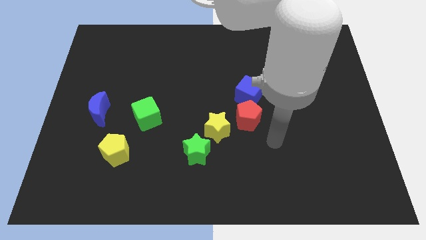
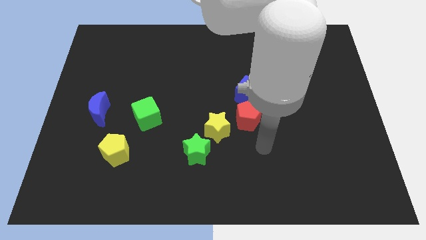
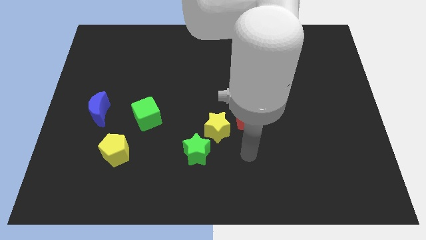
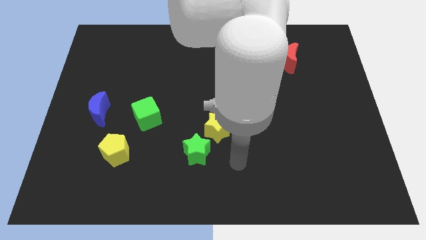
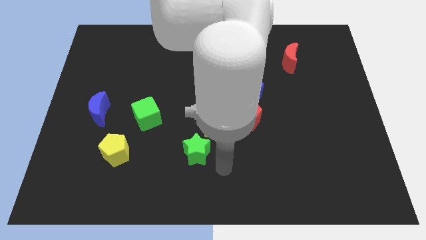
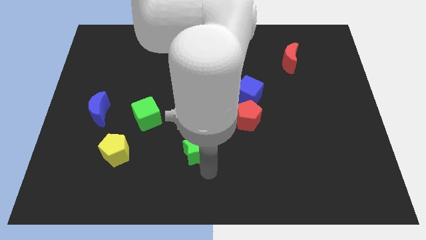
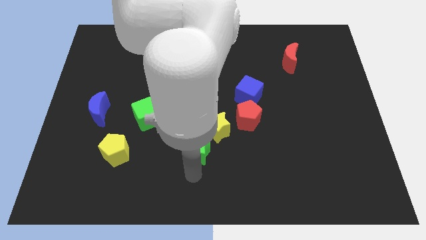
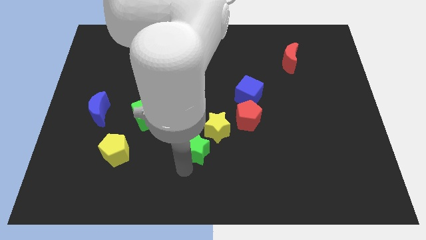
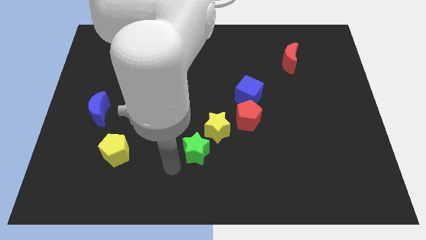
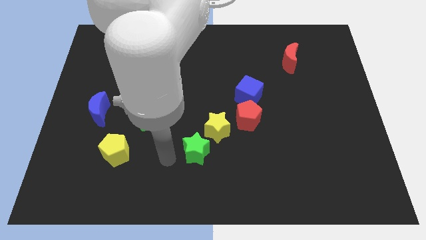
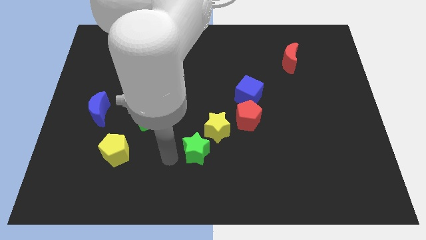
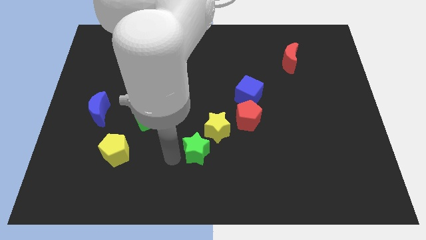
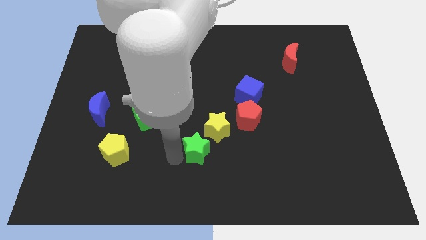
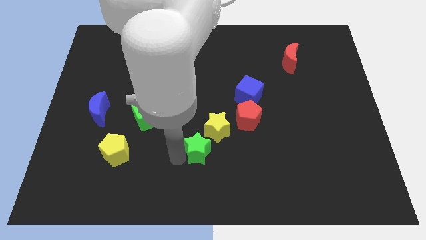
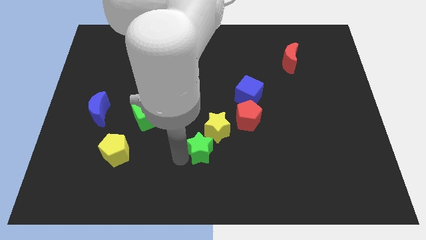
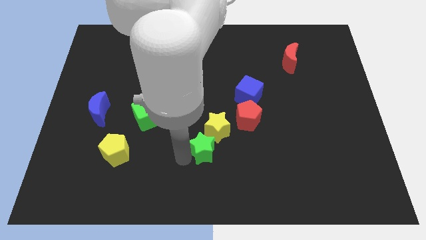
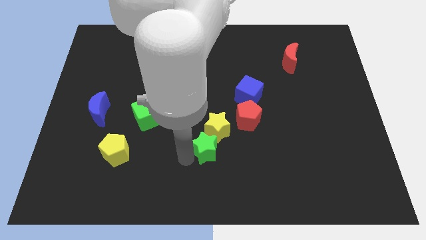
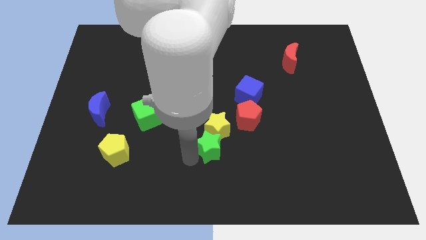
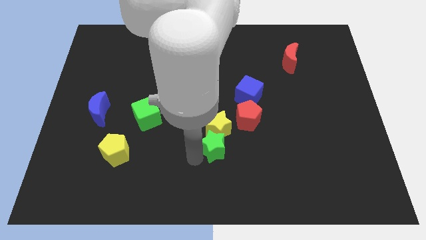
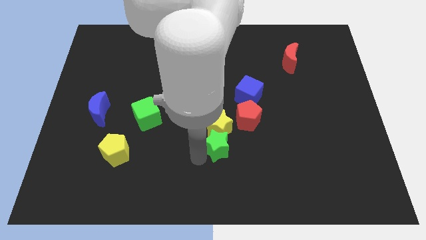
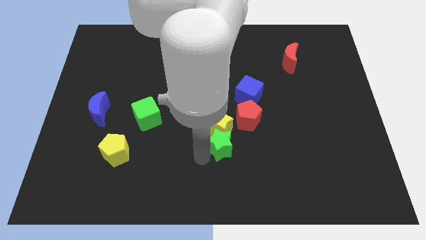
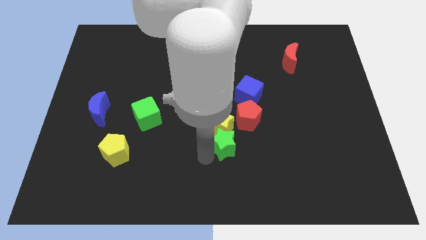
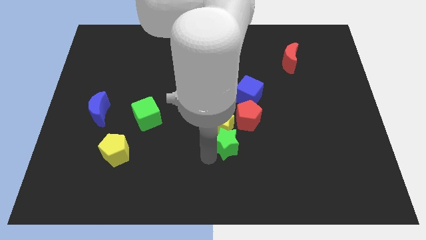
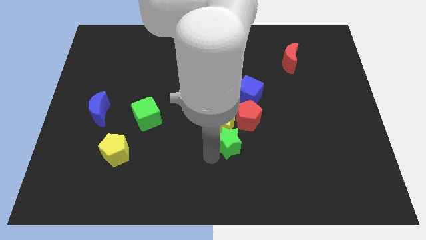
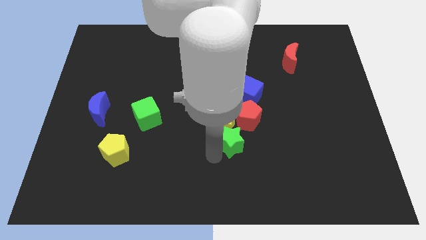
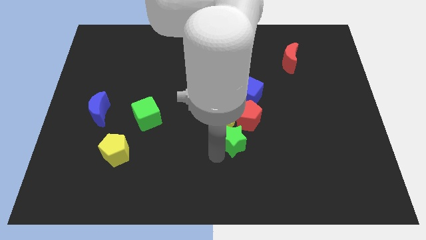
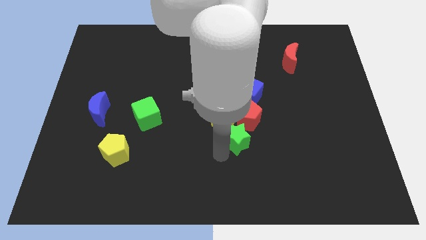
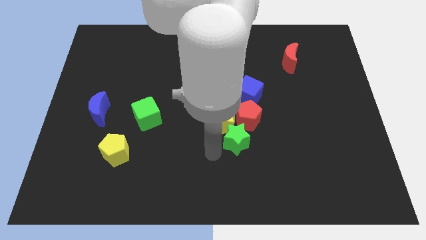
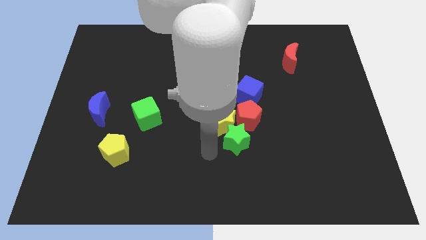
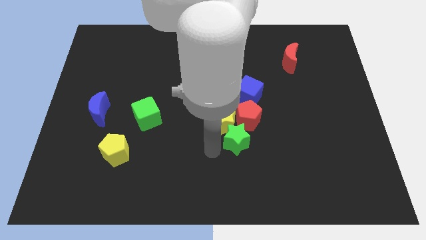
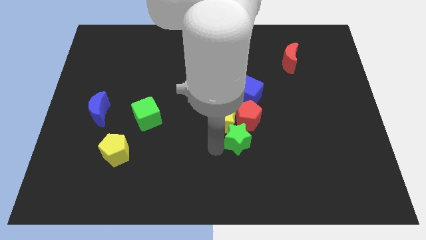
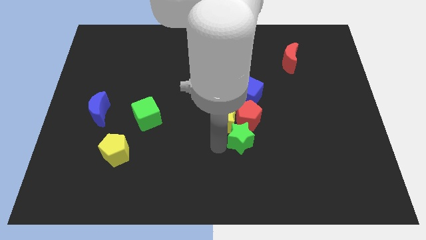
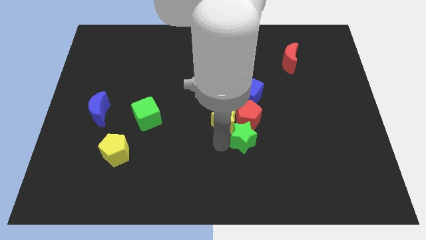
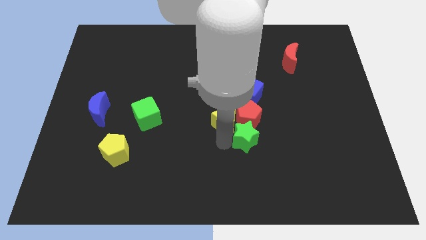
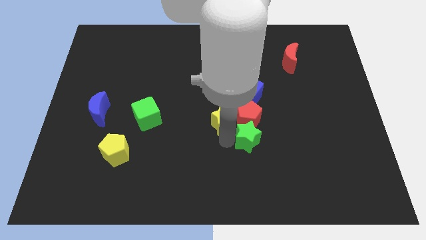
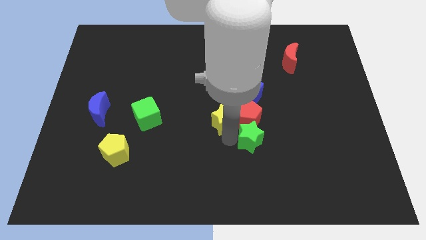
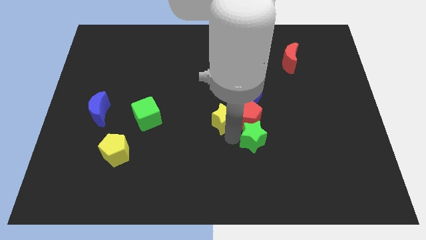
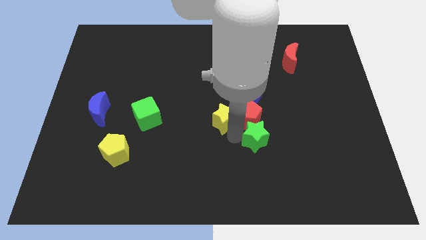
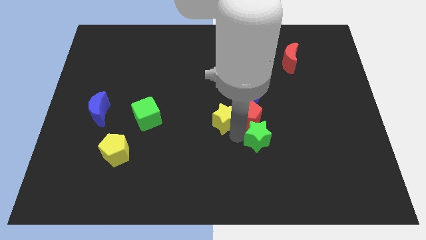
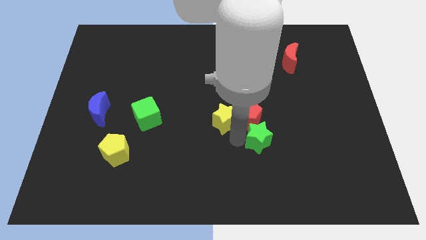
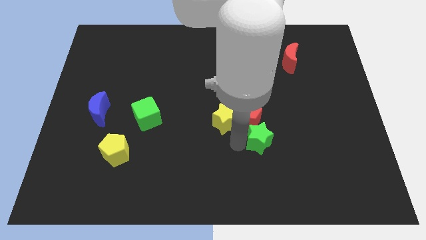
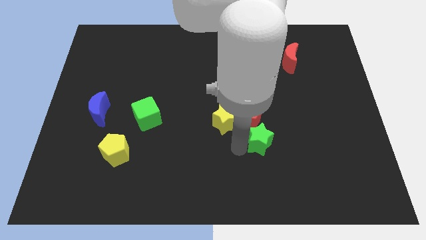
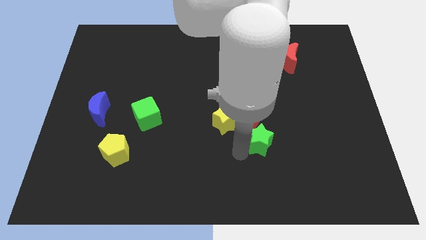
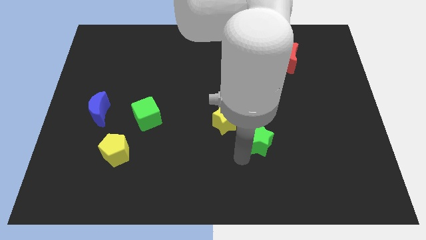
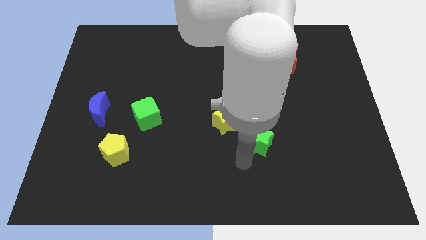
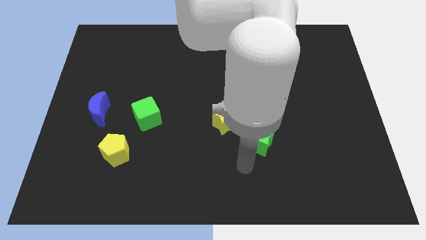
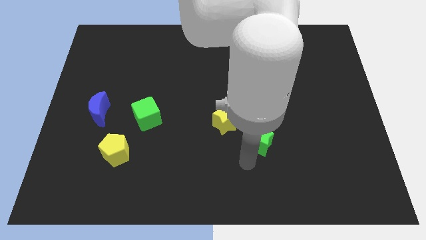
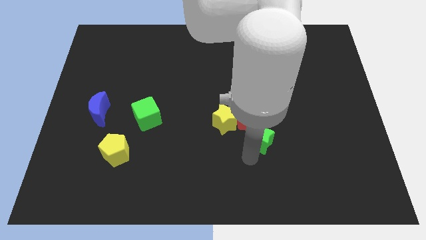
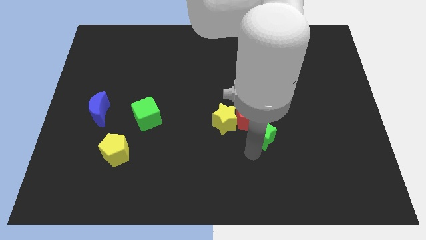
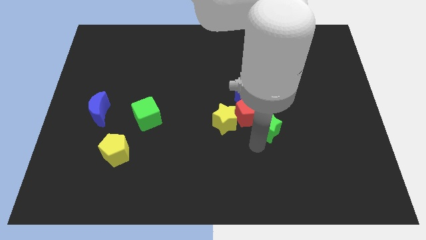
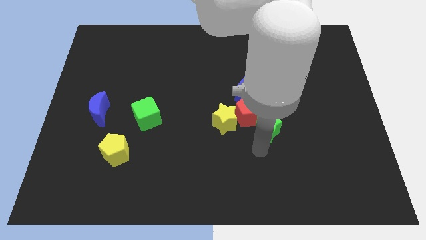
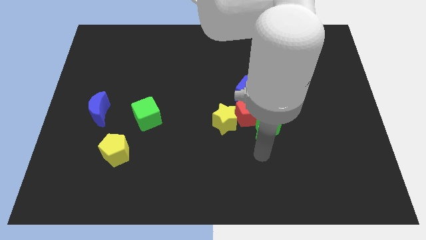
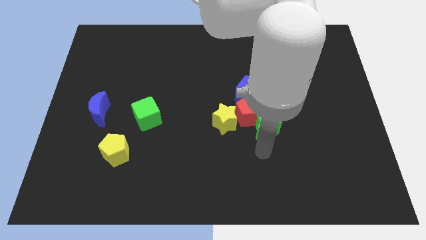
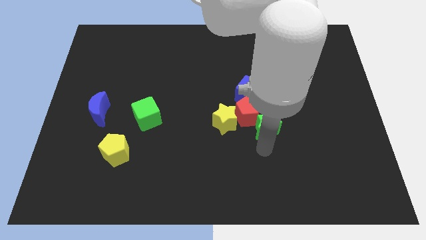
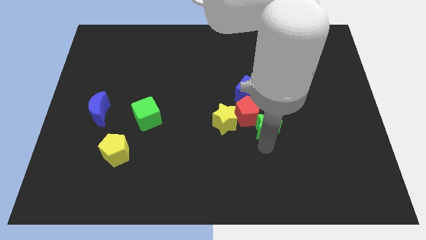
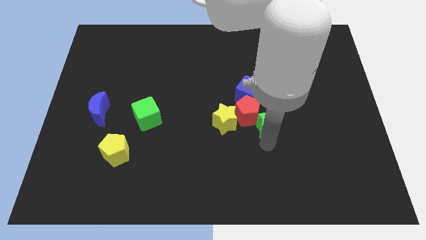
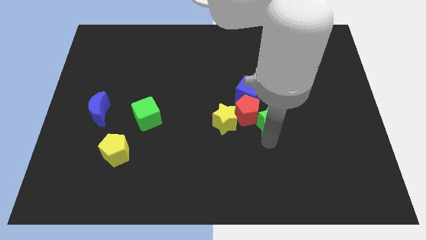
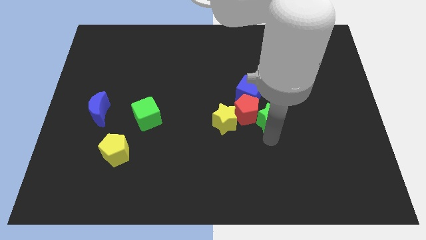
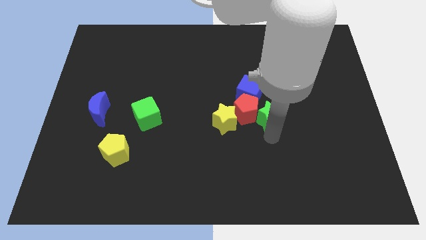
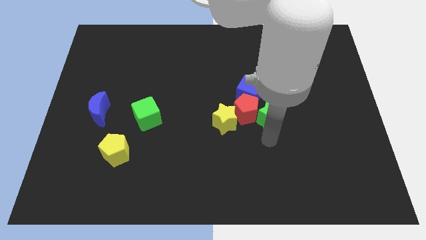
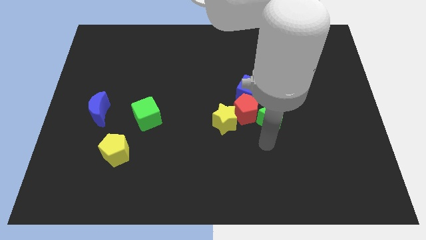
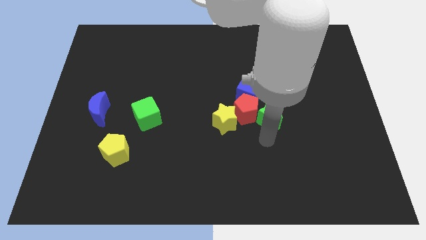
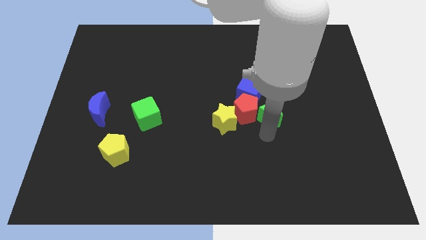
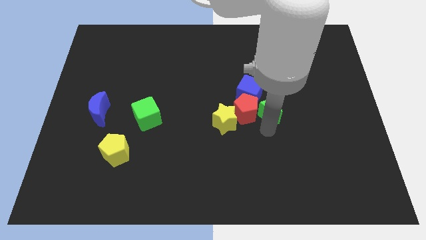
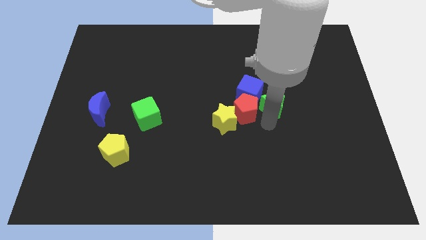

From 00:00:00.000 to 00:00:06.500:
push the green star upwards and right diagonally

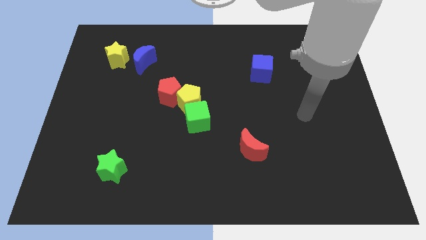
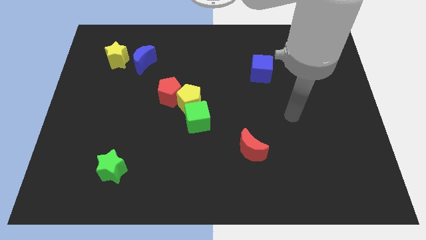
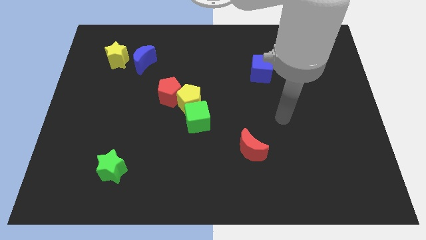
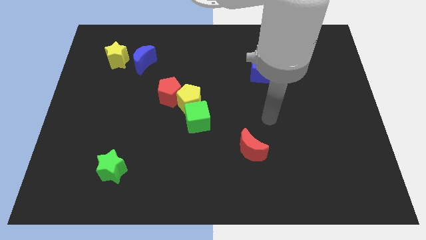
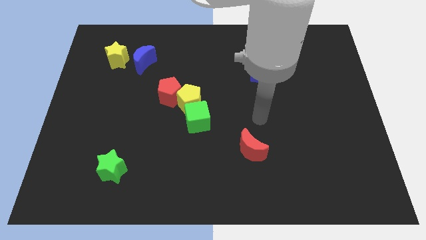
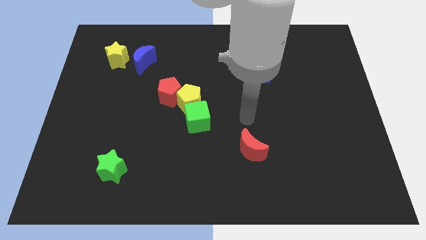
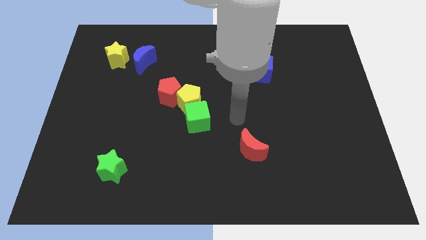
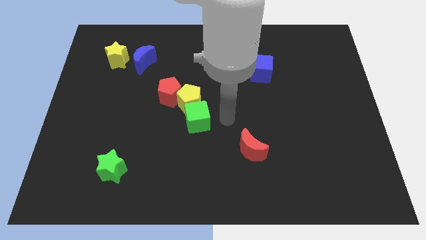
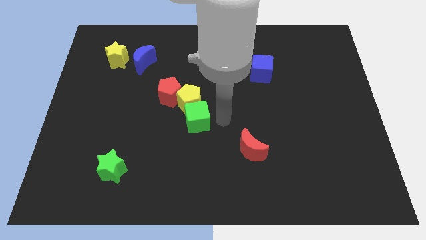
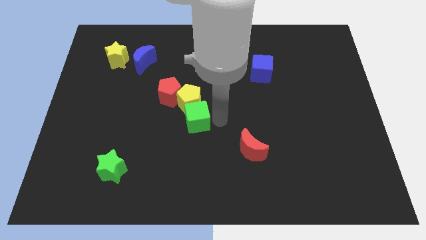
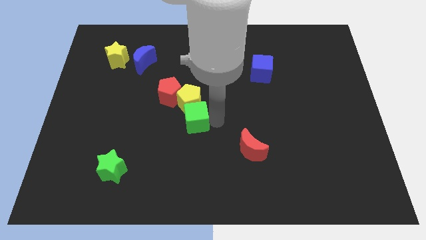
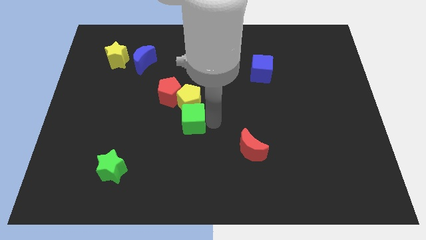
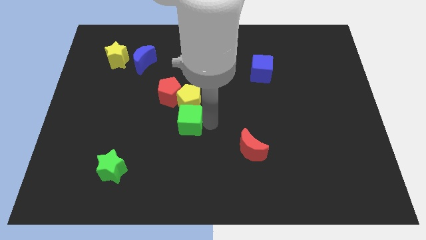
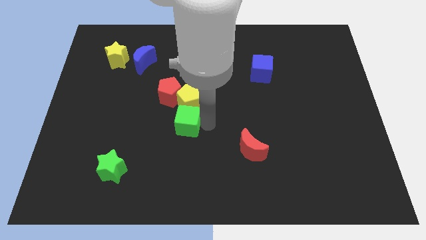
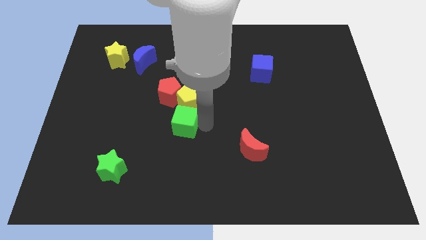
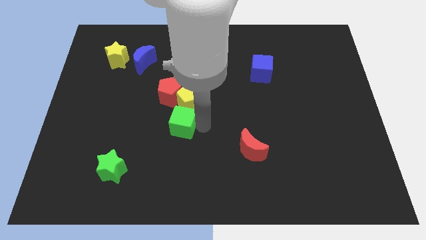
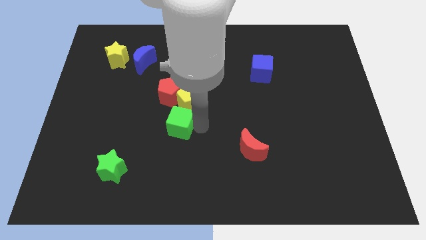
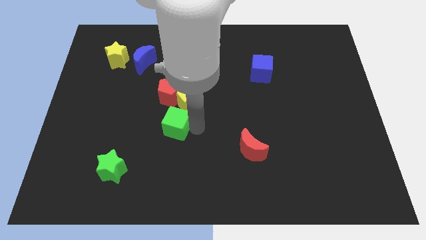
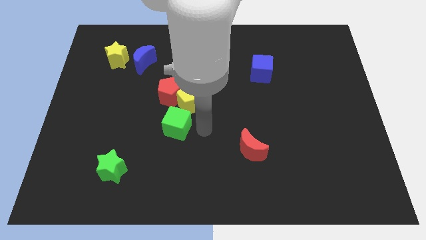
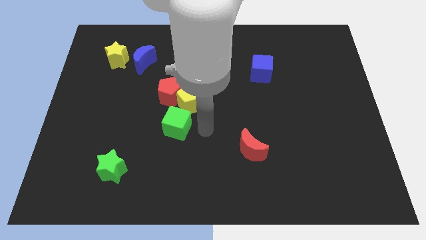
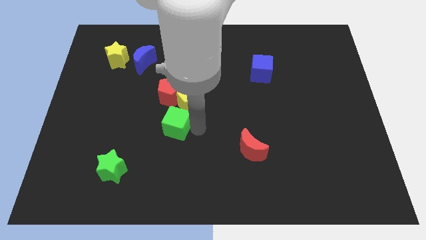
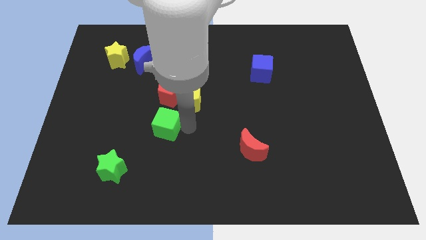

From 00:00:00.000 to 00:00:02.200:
push the green cube to the left a little
